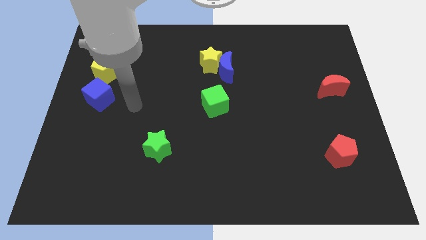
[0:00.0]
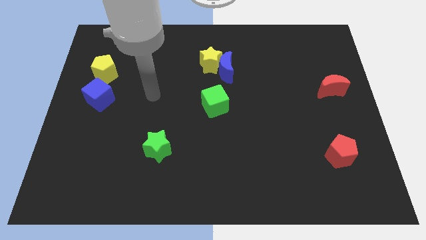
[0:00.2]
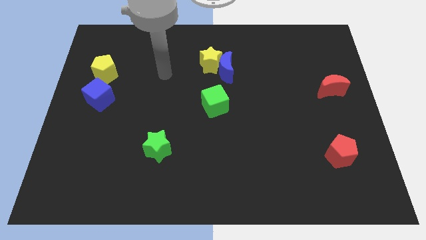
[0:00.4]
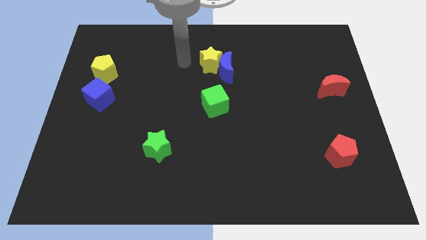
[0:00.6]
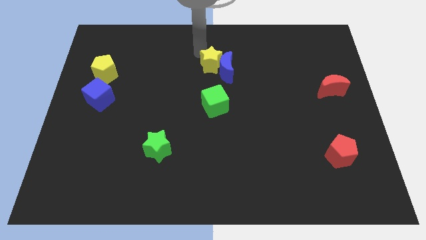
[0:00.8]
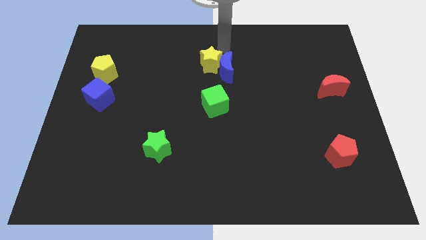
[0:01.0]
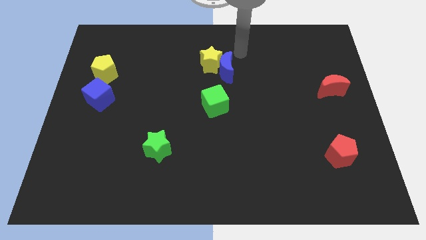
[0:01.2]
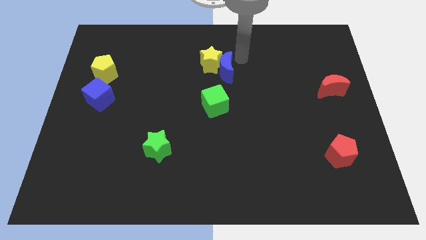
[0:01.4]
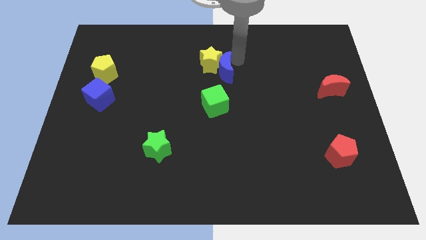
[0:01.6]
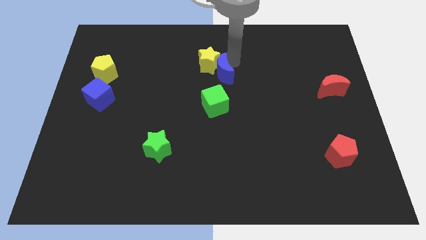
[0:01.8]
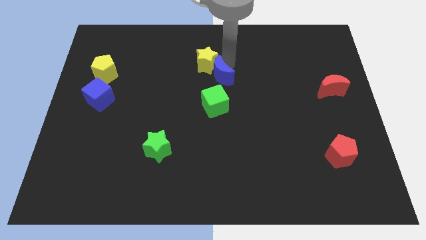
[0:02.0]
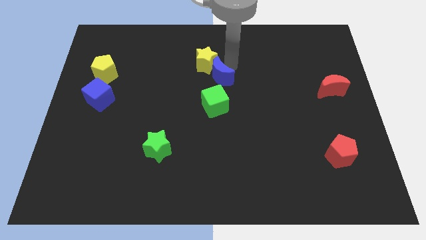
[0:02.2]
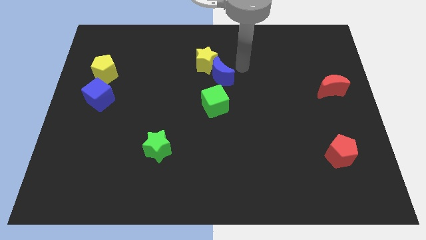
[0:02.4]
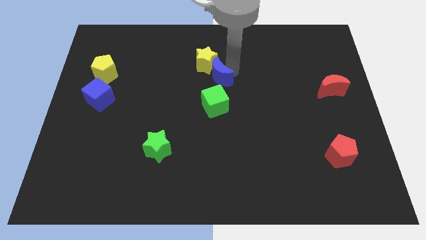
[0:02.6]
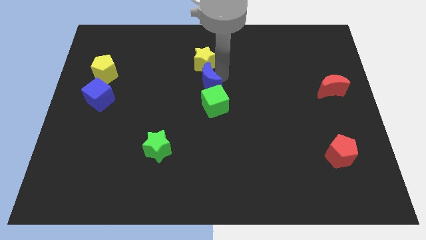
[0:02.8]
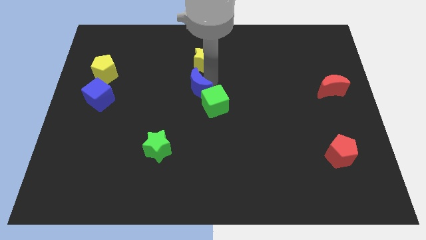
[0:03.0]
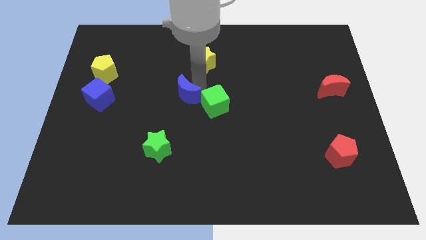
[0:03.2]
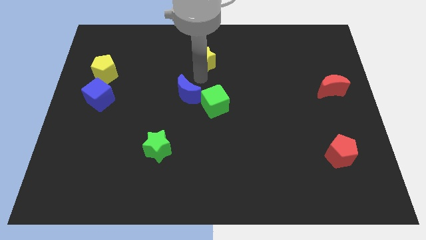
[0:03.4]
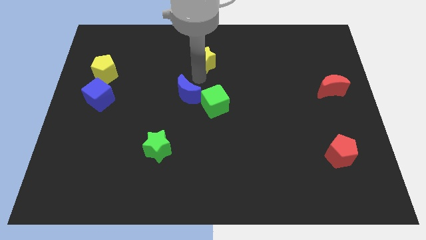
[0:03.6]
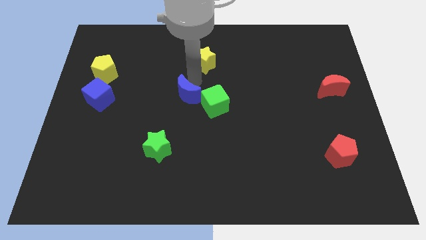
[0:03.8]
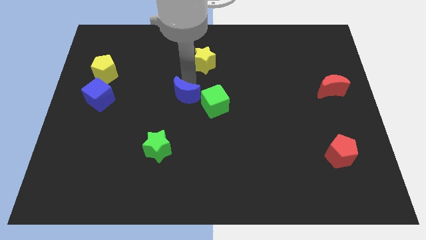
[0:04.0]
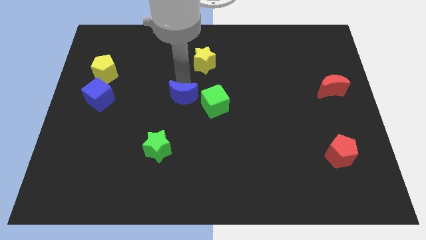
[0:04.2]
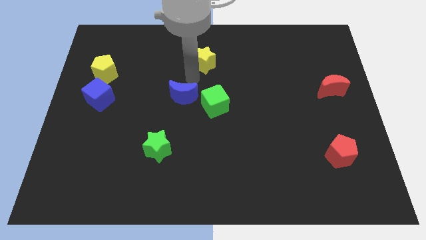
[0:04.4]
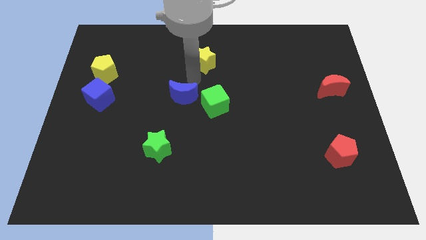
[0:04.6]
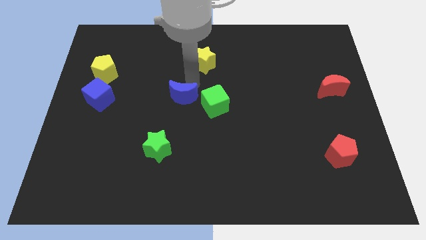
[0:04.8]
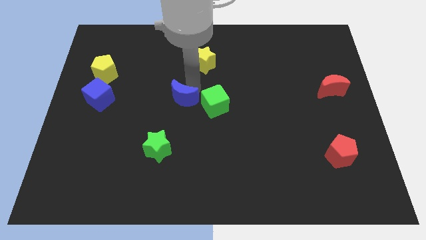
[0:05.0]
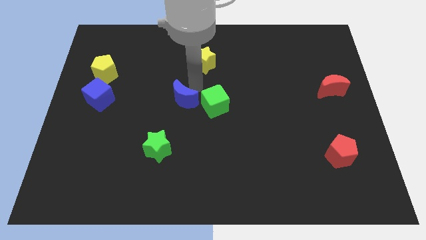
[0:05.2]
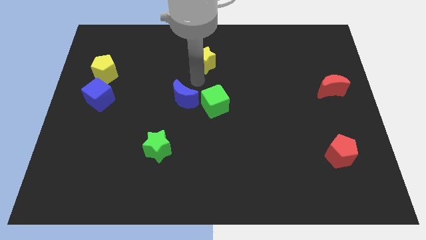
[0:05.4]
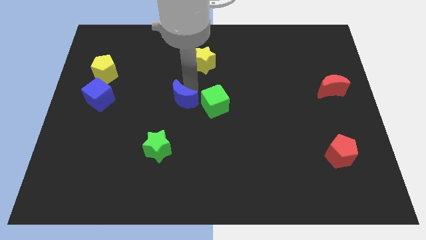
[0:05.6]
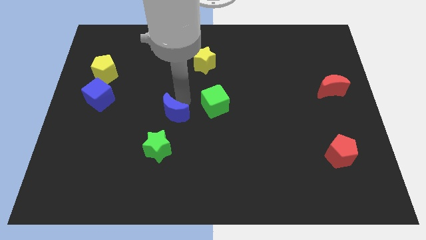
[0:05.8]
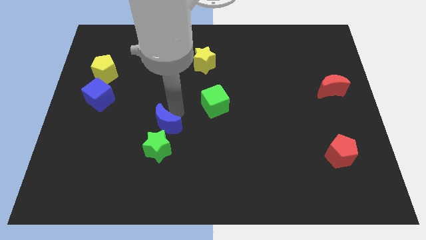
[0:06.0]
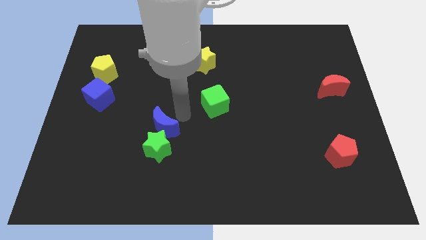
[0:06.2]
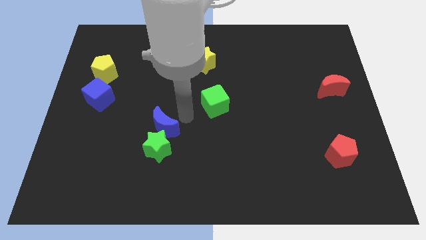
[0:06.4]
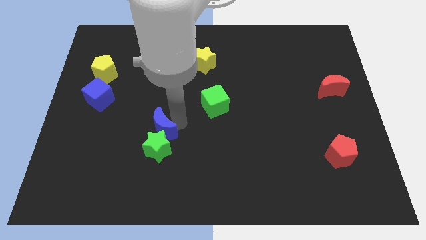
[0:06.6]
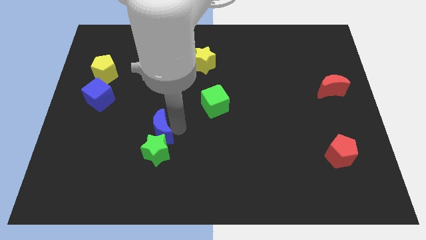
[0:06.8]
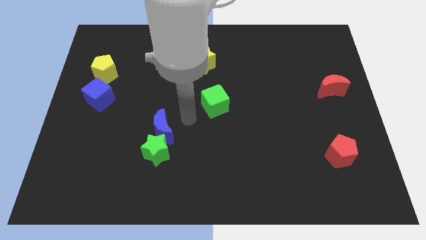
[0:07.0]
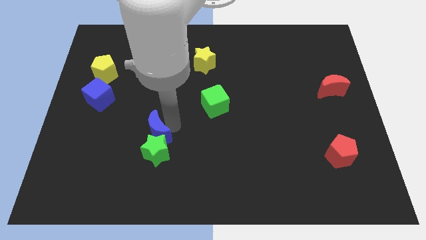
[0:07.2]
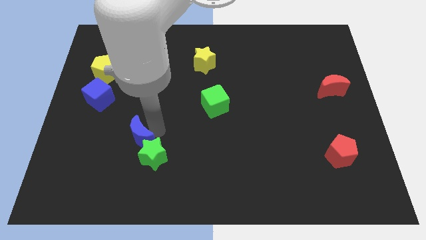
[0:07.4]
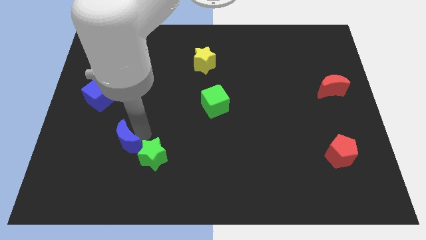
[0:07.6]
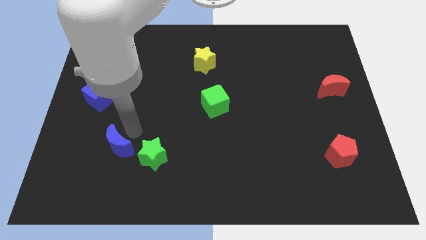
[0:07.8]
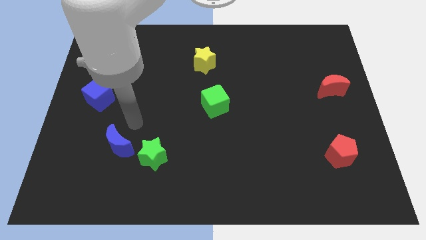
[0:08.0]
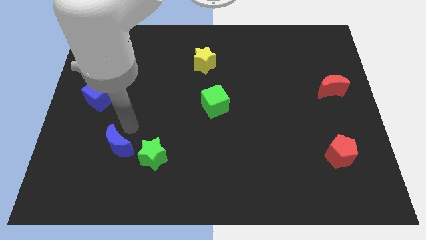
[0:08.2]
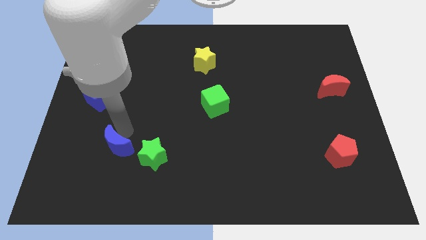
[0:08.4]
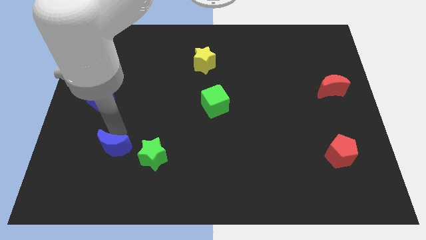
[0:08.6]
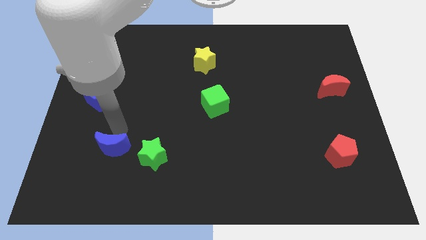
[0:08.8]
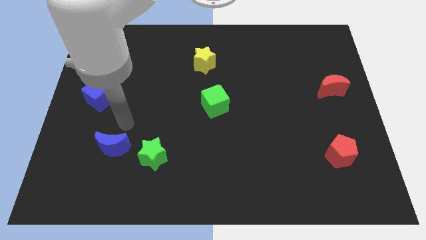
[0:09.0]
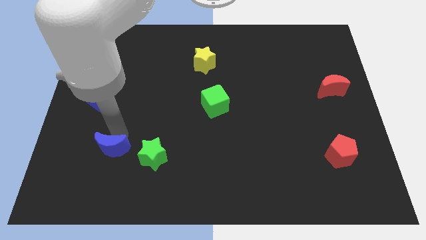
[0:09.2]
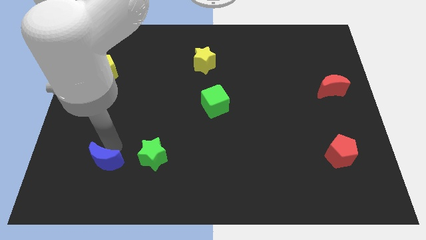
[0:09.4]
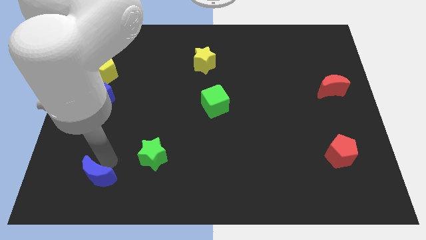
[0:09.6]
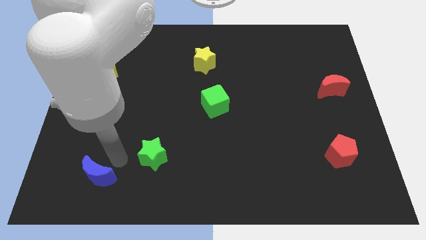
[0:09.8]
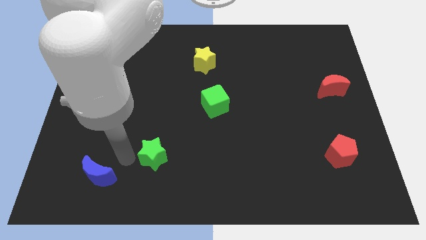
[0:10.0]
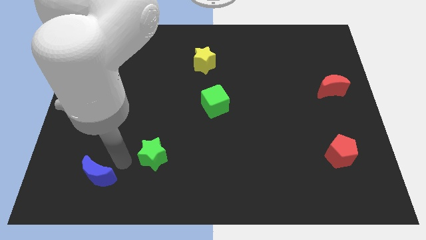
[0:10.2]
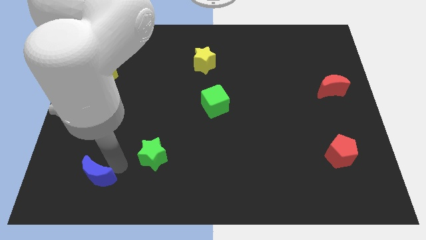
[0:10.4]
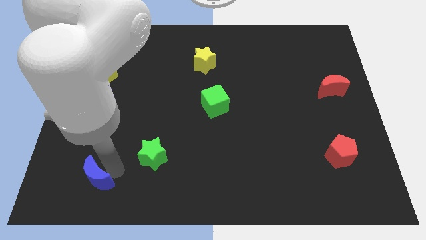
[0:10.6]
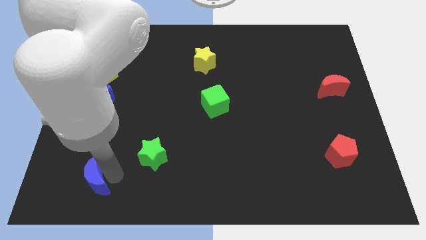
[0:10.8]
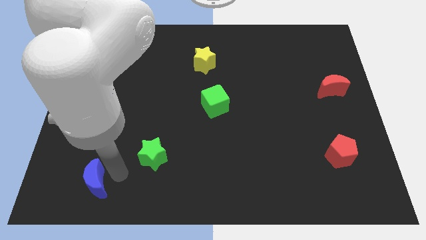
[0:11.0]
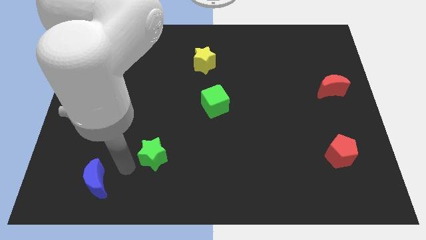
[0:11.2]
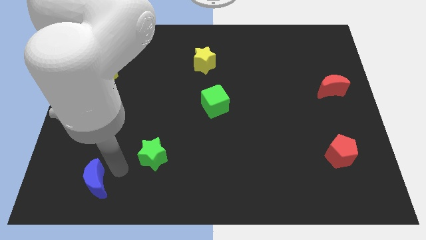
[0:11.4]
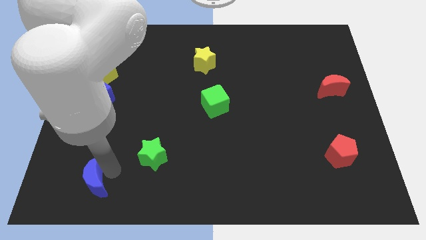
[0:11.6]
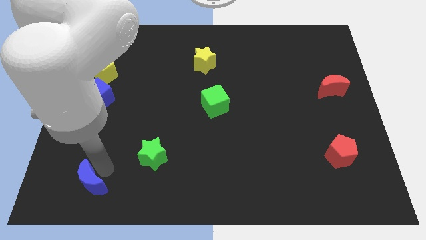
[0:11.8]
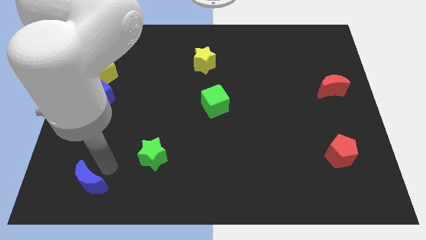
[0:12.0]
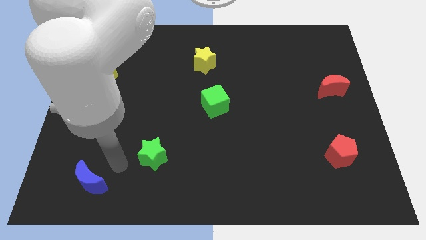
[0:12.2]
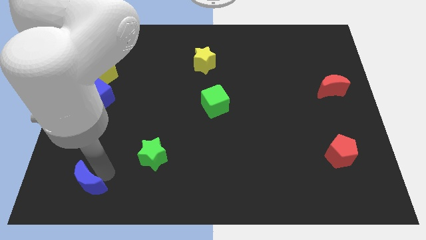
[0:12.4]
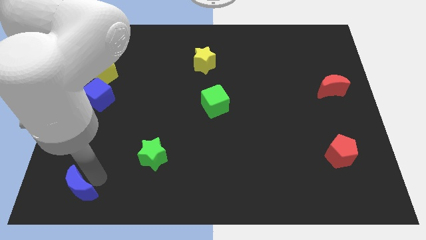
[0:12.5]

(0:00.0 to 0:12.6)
put the blue moon to the bottom left of the board
